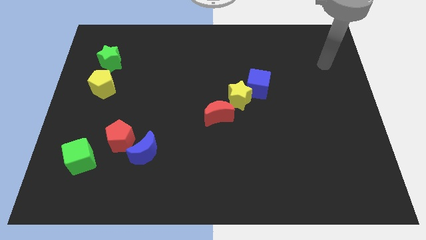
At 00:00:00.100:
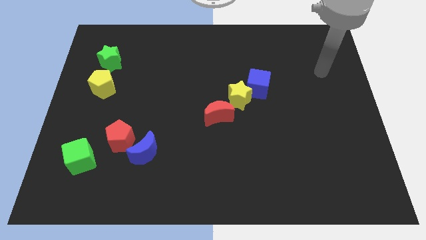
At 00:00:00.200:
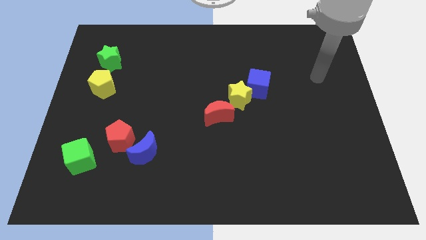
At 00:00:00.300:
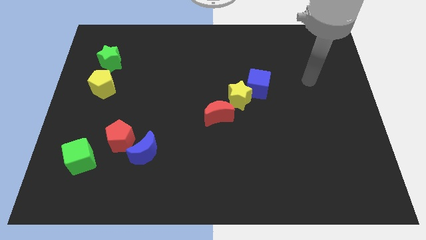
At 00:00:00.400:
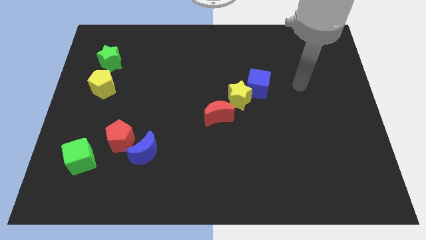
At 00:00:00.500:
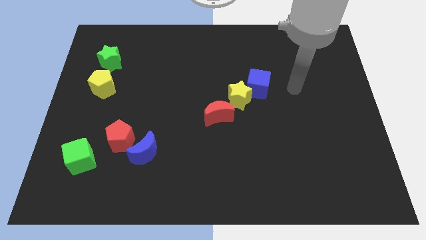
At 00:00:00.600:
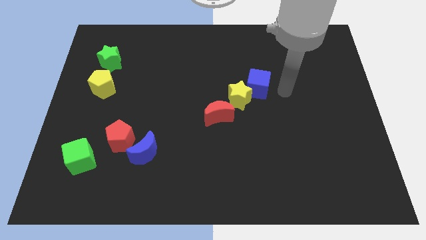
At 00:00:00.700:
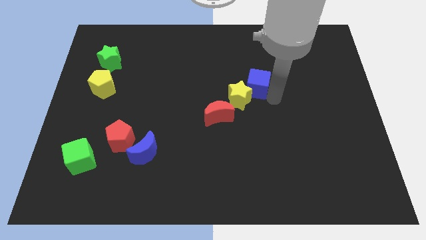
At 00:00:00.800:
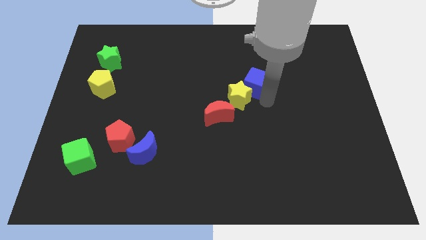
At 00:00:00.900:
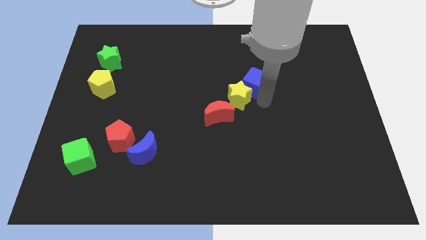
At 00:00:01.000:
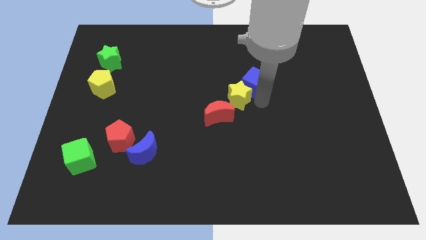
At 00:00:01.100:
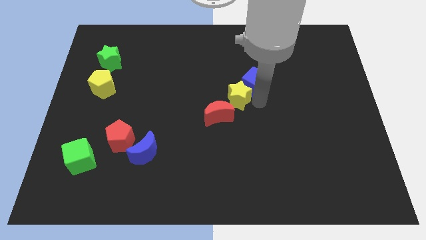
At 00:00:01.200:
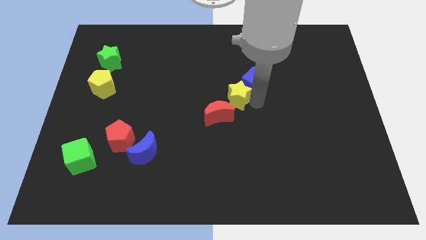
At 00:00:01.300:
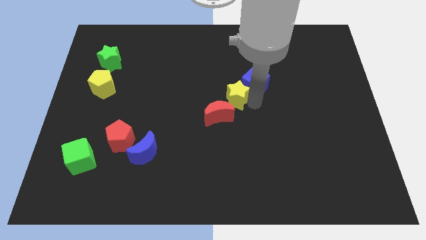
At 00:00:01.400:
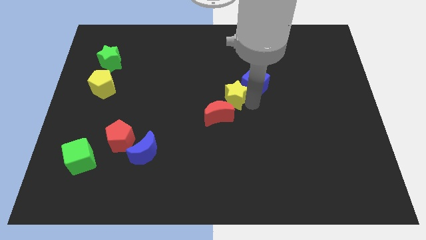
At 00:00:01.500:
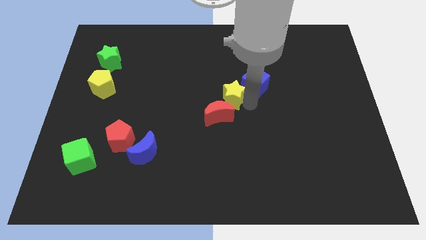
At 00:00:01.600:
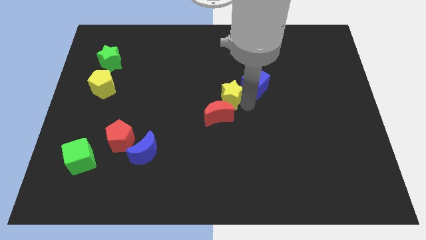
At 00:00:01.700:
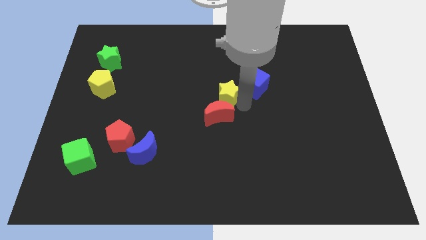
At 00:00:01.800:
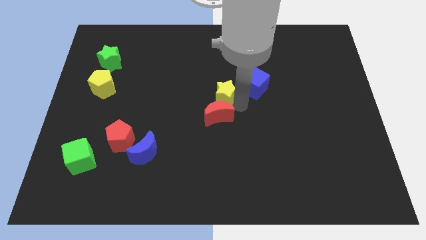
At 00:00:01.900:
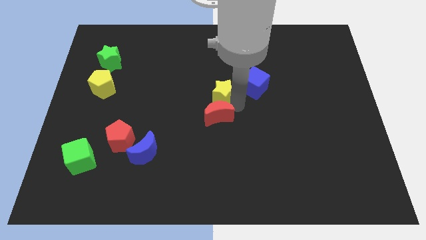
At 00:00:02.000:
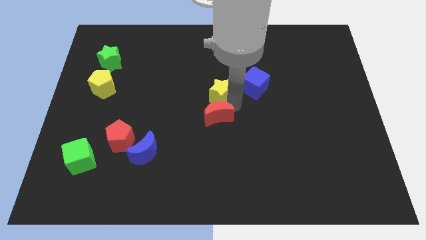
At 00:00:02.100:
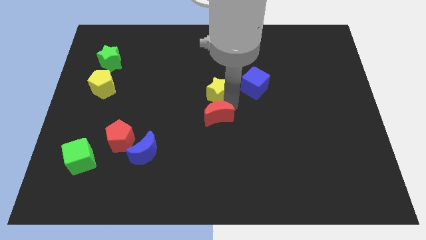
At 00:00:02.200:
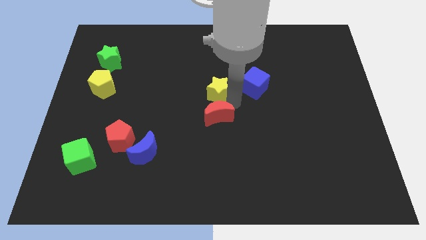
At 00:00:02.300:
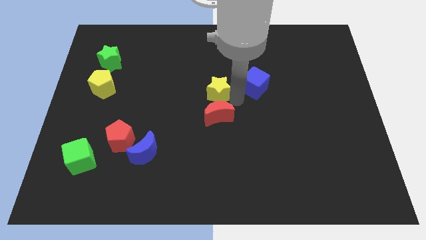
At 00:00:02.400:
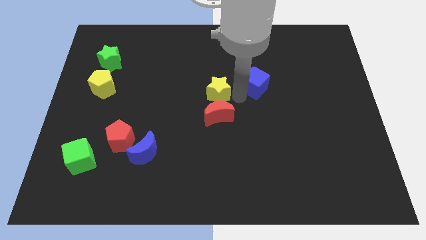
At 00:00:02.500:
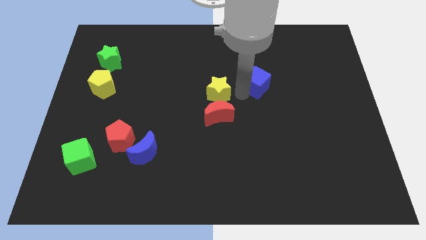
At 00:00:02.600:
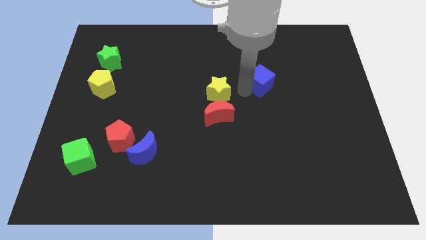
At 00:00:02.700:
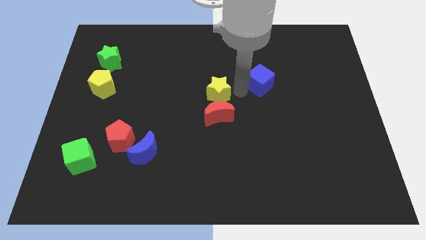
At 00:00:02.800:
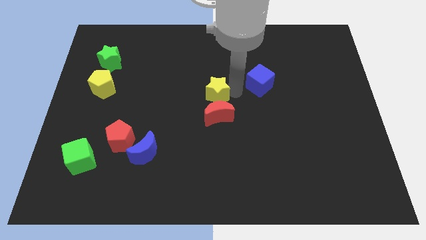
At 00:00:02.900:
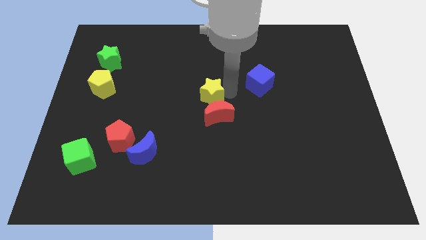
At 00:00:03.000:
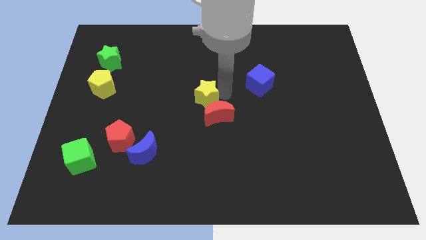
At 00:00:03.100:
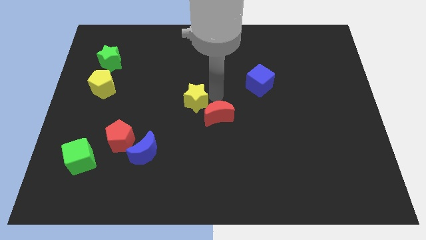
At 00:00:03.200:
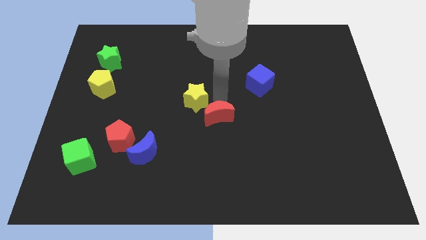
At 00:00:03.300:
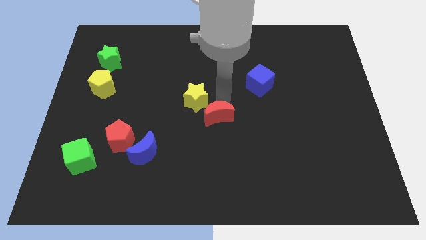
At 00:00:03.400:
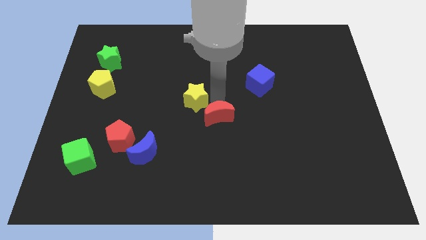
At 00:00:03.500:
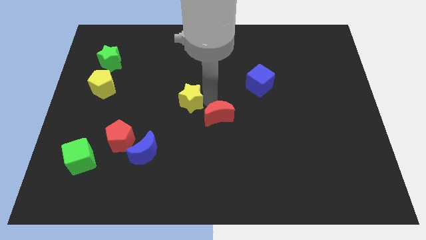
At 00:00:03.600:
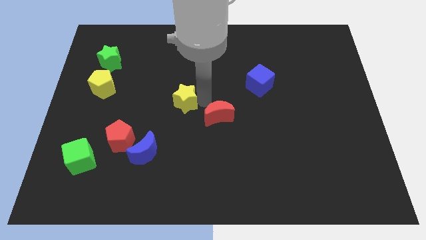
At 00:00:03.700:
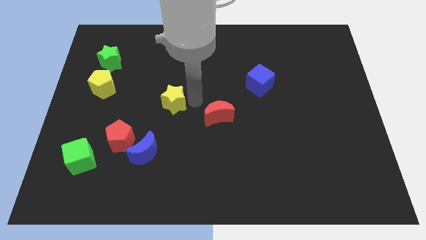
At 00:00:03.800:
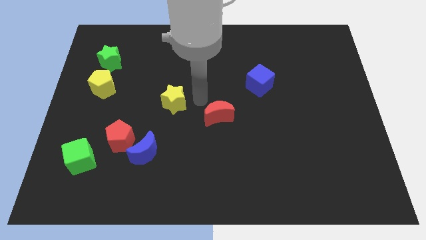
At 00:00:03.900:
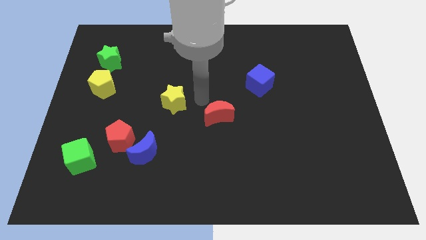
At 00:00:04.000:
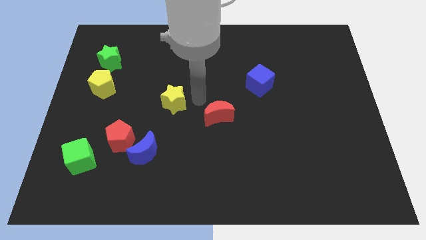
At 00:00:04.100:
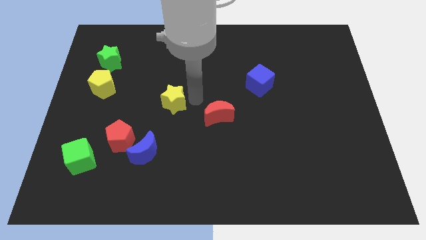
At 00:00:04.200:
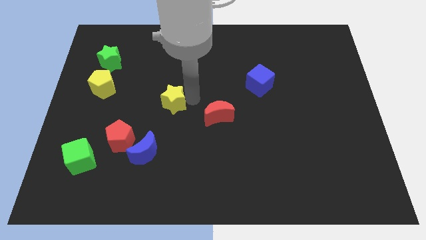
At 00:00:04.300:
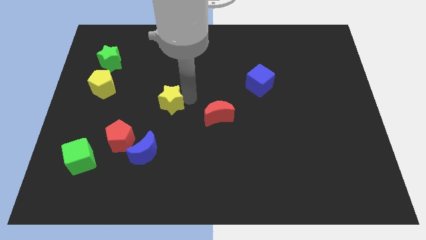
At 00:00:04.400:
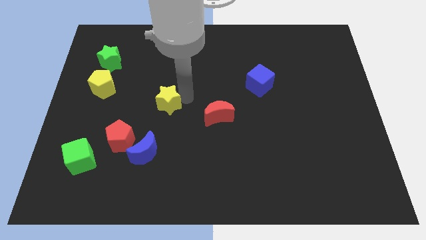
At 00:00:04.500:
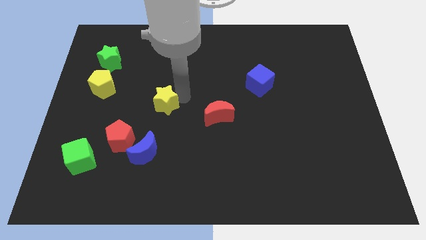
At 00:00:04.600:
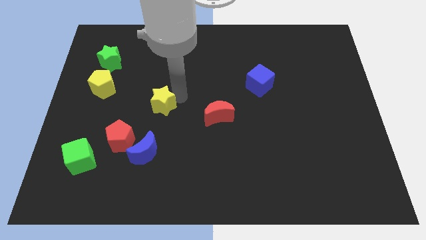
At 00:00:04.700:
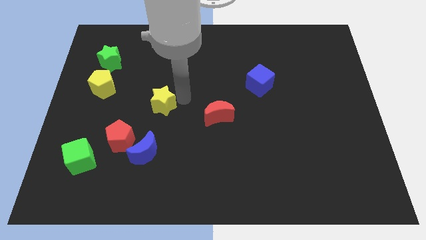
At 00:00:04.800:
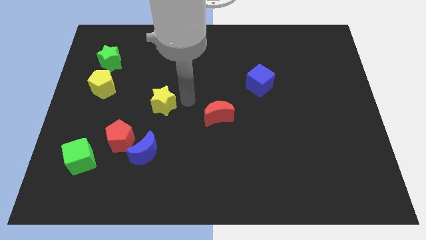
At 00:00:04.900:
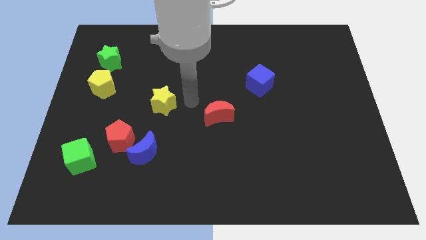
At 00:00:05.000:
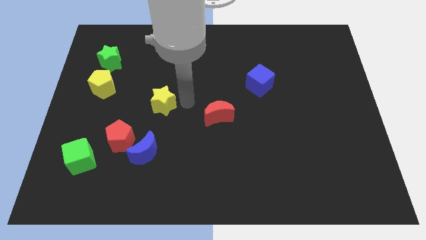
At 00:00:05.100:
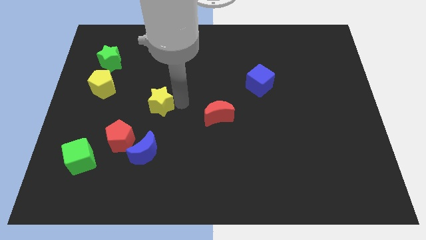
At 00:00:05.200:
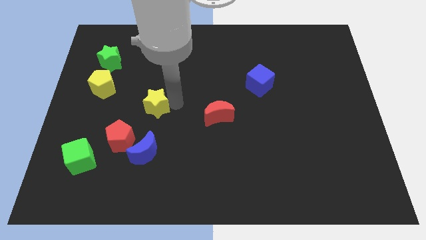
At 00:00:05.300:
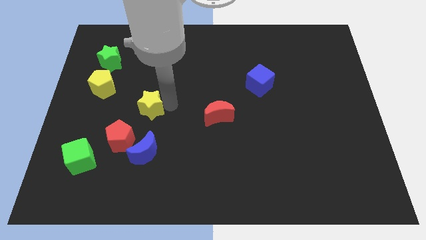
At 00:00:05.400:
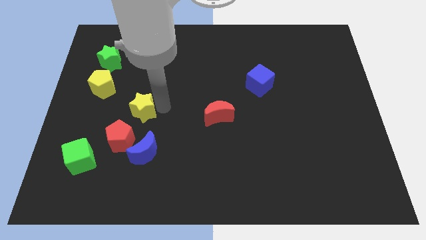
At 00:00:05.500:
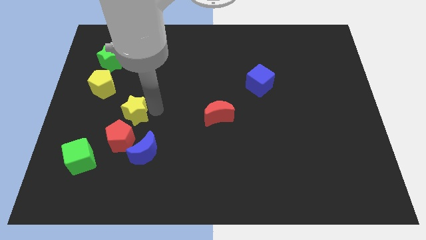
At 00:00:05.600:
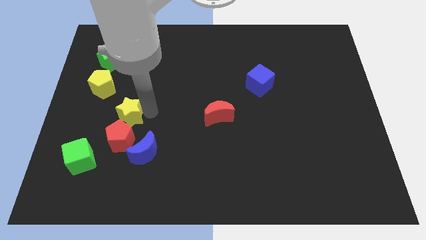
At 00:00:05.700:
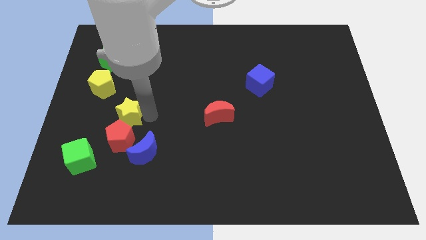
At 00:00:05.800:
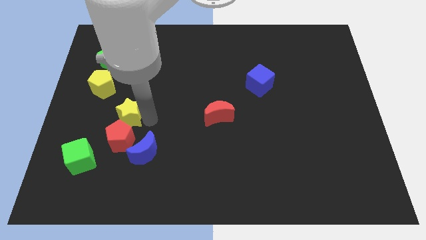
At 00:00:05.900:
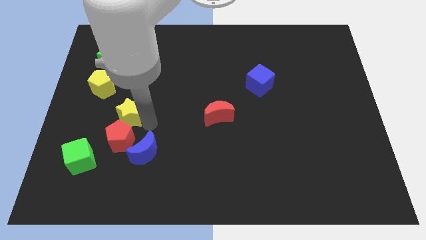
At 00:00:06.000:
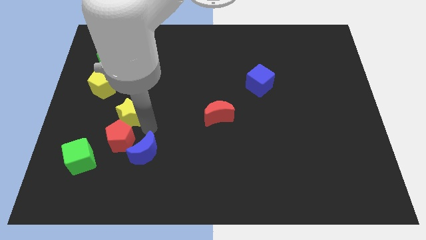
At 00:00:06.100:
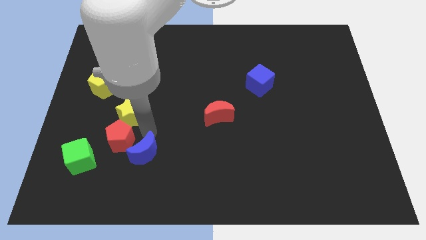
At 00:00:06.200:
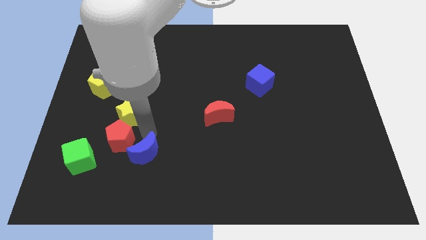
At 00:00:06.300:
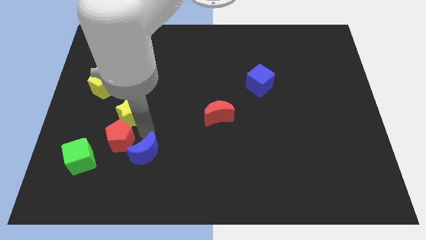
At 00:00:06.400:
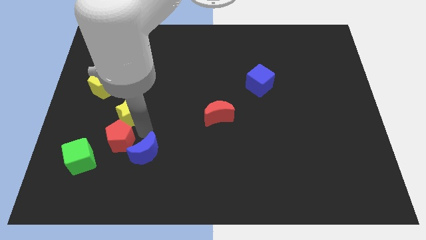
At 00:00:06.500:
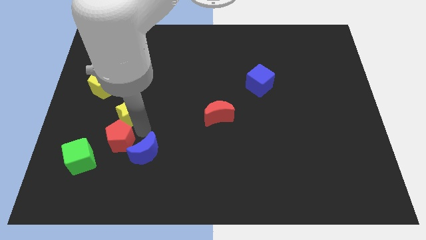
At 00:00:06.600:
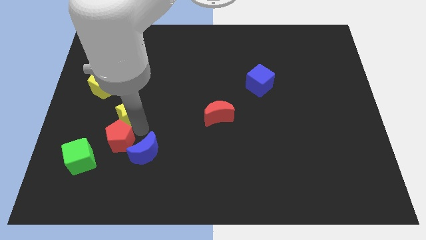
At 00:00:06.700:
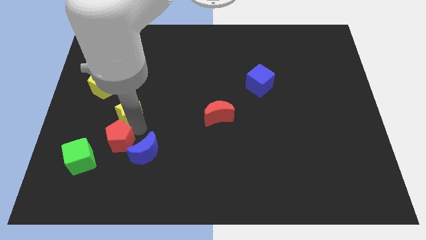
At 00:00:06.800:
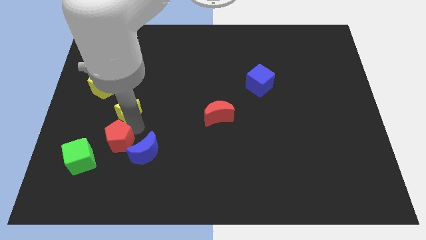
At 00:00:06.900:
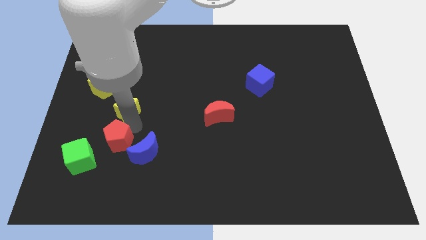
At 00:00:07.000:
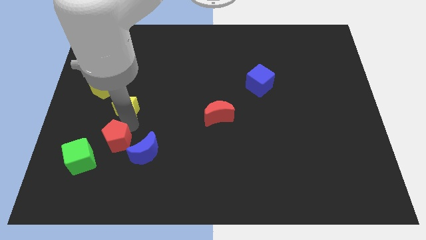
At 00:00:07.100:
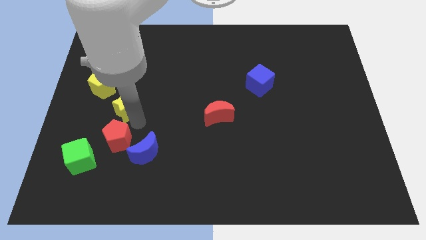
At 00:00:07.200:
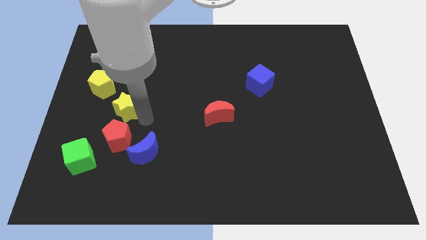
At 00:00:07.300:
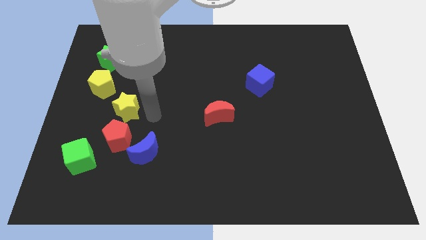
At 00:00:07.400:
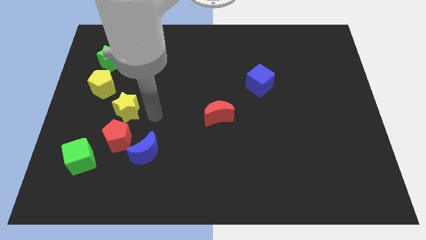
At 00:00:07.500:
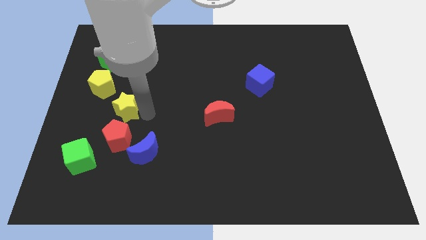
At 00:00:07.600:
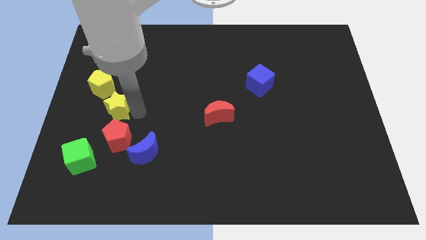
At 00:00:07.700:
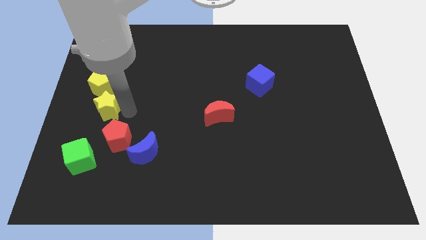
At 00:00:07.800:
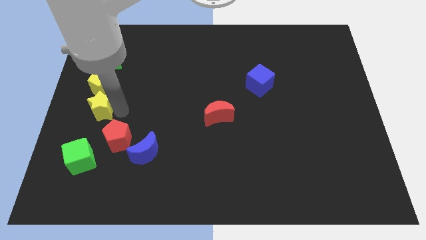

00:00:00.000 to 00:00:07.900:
push the yellow star to the left side
